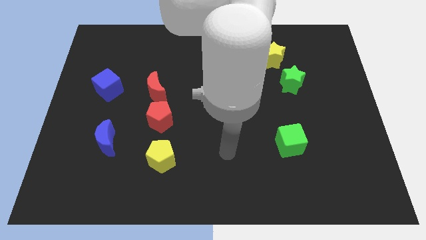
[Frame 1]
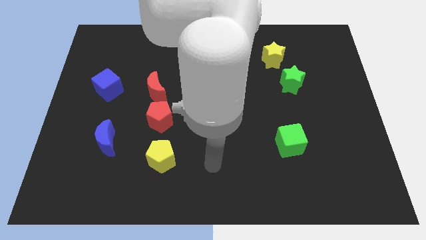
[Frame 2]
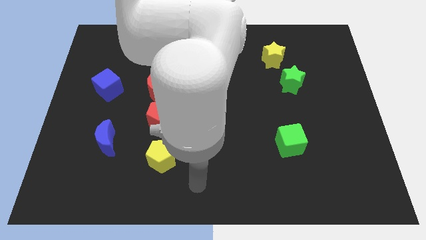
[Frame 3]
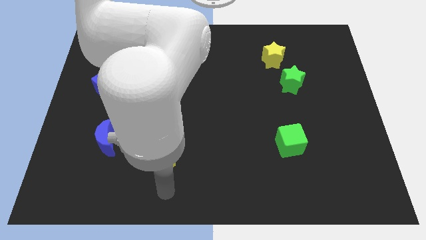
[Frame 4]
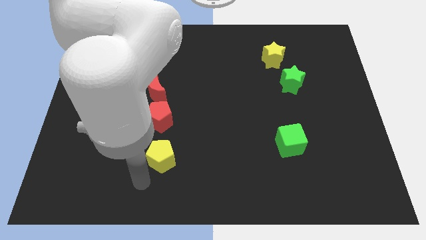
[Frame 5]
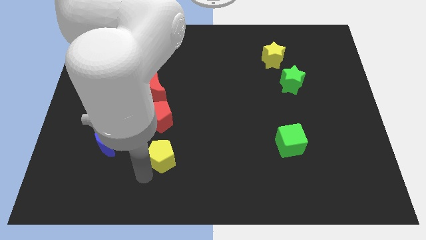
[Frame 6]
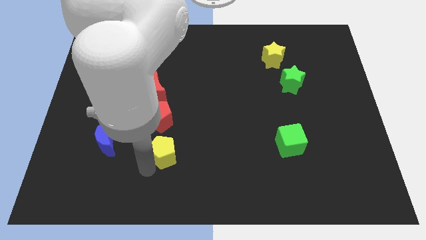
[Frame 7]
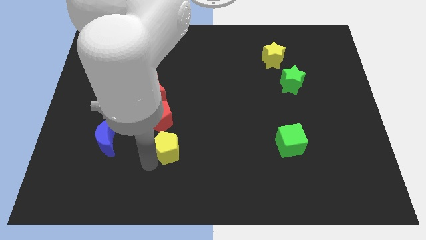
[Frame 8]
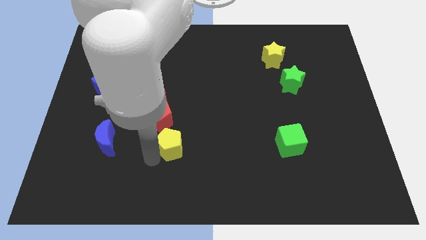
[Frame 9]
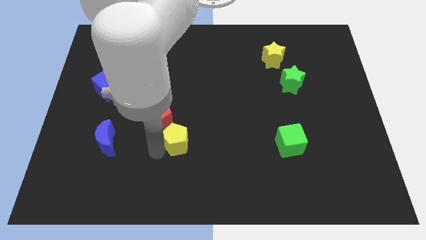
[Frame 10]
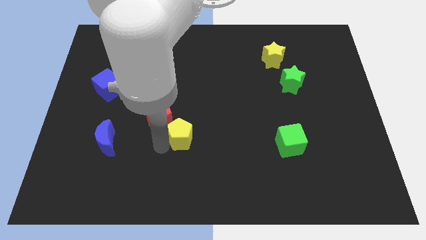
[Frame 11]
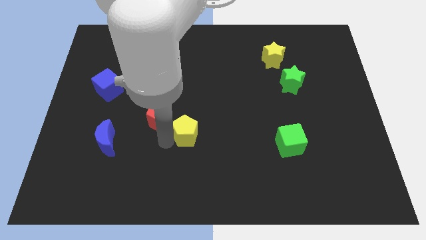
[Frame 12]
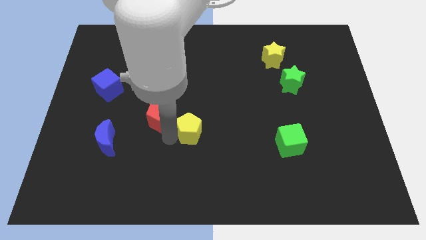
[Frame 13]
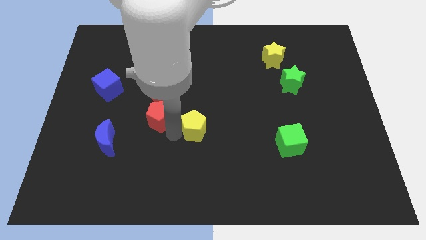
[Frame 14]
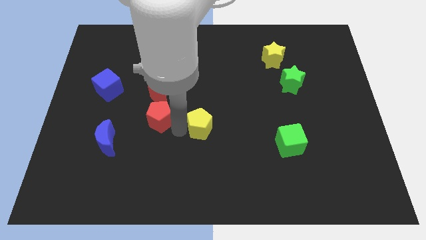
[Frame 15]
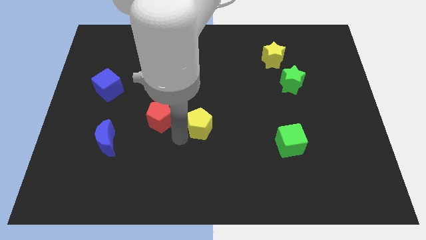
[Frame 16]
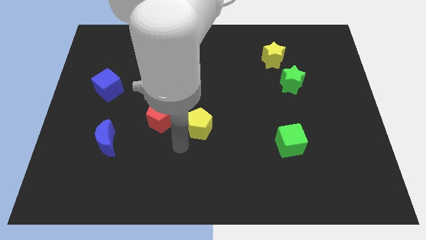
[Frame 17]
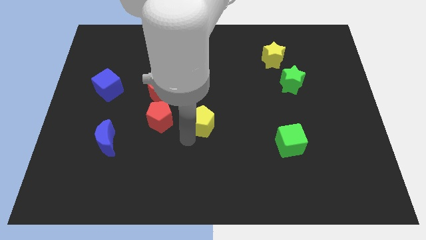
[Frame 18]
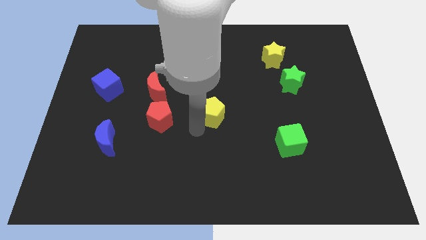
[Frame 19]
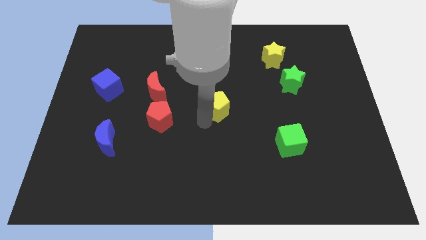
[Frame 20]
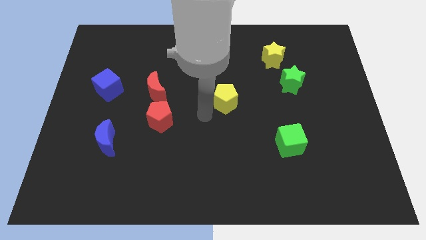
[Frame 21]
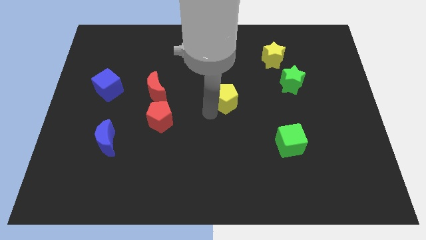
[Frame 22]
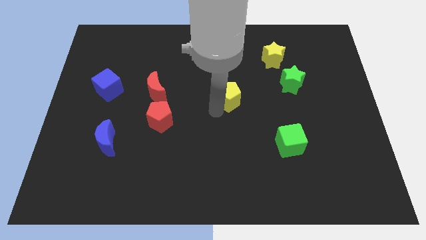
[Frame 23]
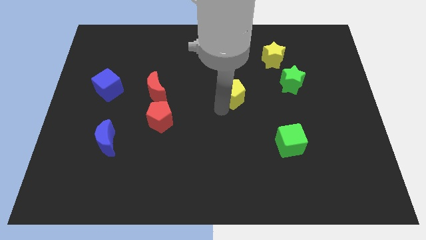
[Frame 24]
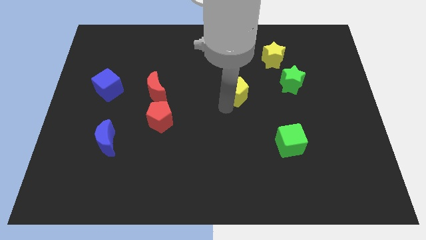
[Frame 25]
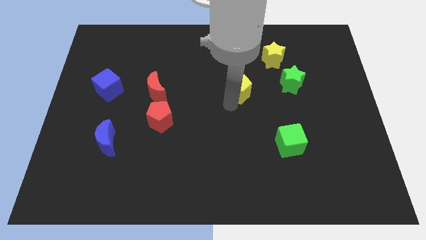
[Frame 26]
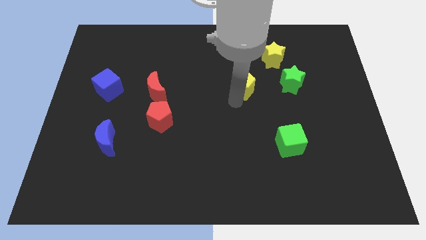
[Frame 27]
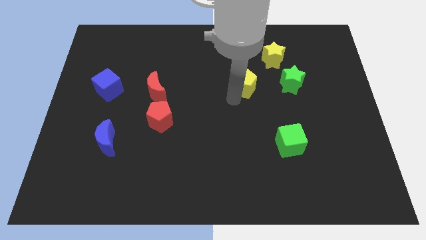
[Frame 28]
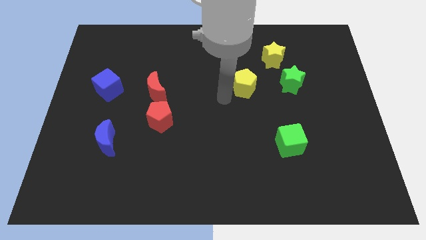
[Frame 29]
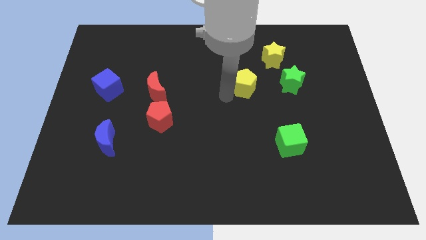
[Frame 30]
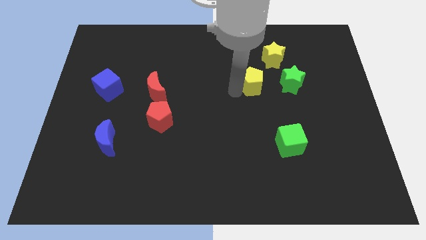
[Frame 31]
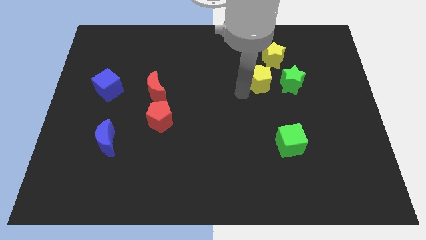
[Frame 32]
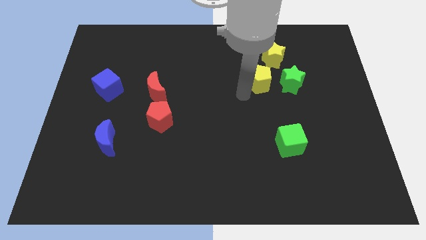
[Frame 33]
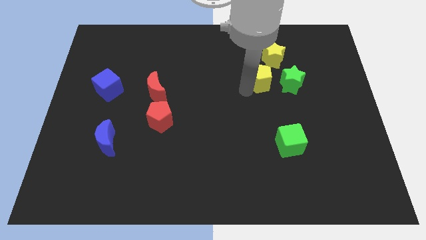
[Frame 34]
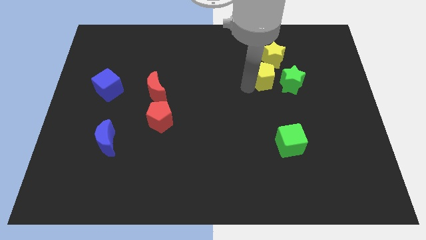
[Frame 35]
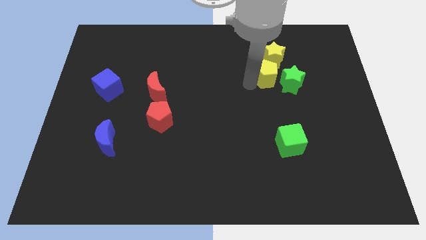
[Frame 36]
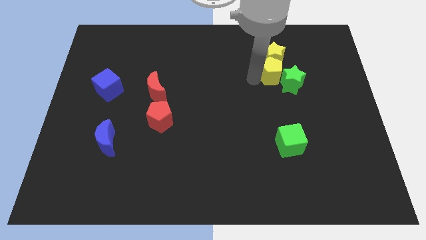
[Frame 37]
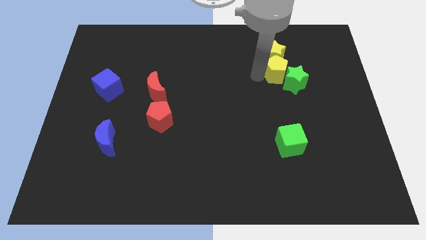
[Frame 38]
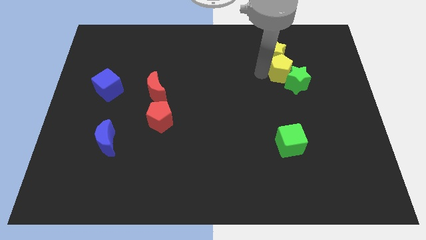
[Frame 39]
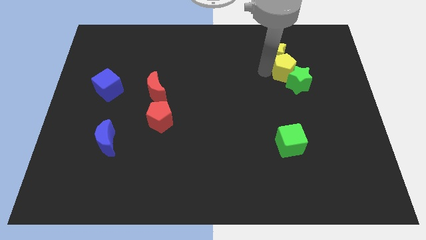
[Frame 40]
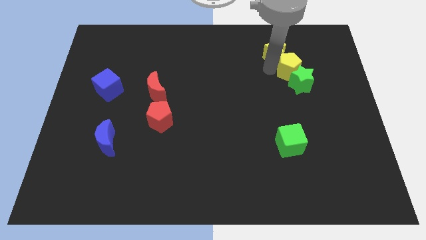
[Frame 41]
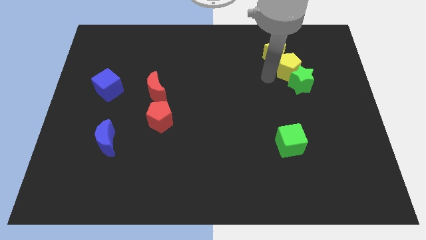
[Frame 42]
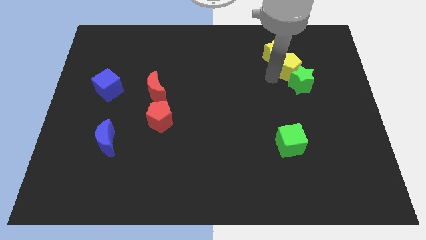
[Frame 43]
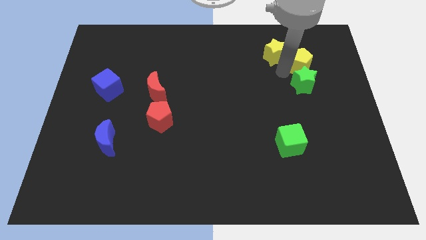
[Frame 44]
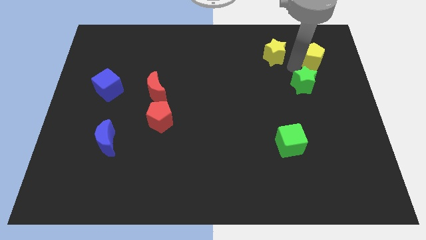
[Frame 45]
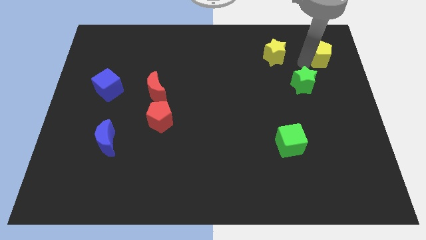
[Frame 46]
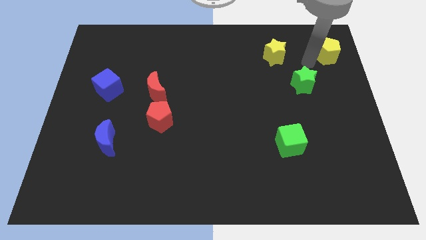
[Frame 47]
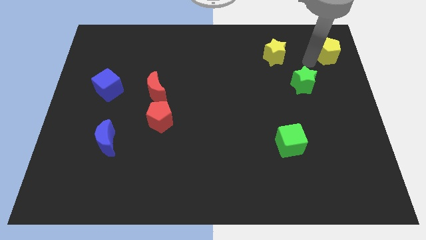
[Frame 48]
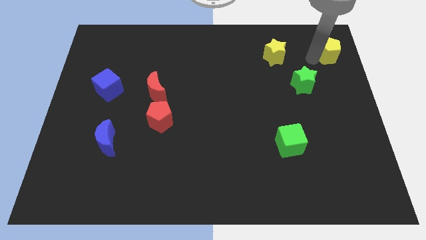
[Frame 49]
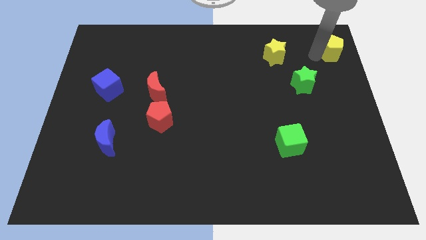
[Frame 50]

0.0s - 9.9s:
slide the yellow pentagon to the top right

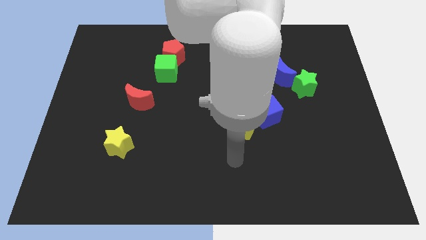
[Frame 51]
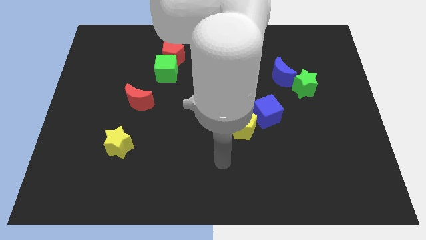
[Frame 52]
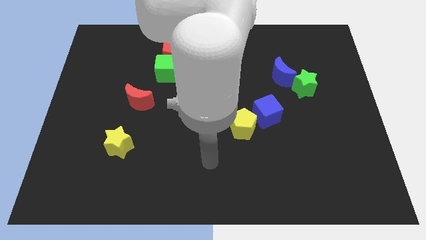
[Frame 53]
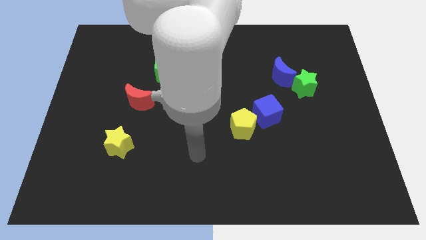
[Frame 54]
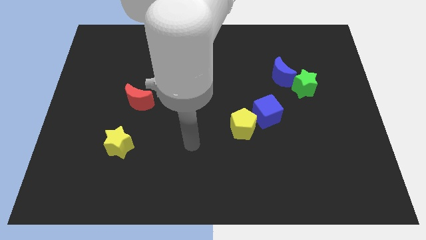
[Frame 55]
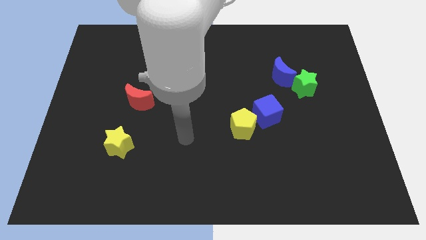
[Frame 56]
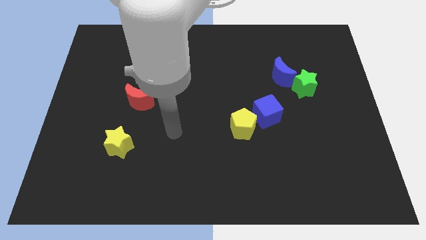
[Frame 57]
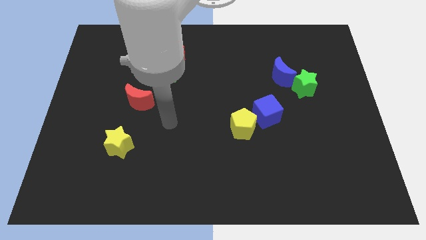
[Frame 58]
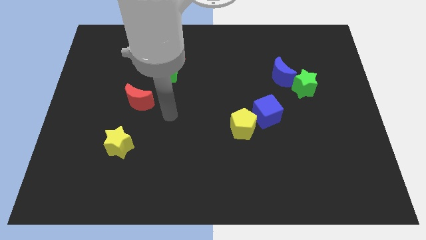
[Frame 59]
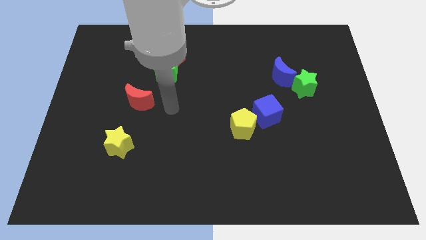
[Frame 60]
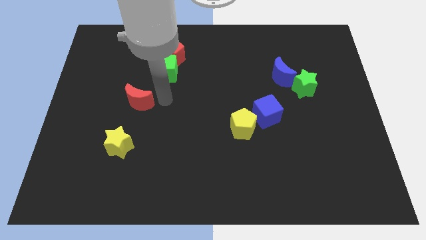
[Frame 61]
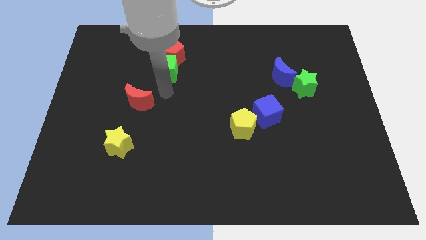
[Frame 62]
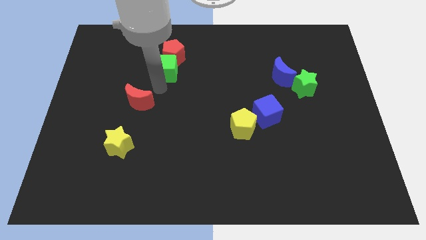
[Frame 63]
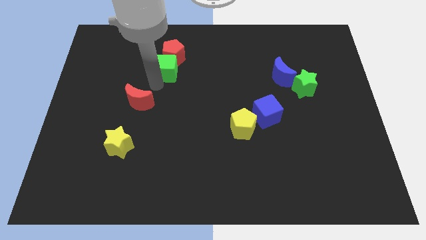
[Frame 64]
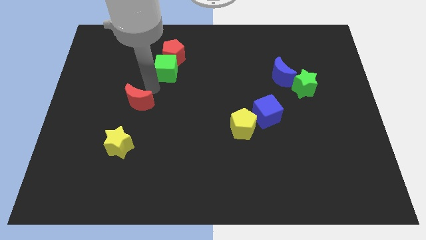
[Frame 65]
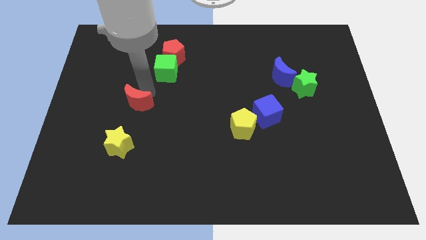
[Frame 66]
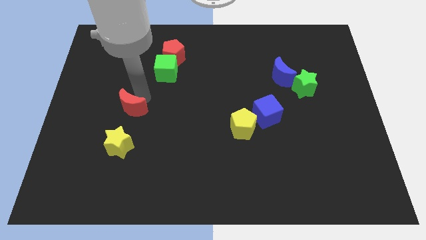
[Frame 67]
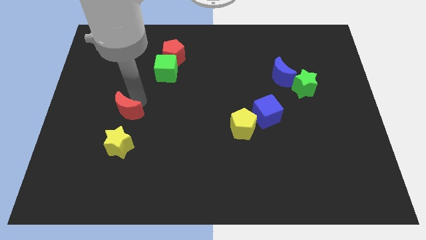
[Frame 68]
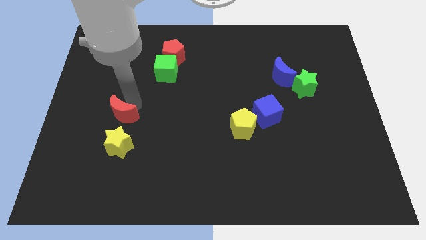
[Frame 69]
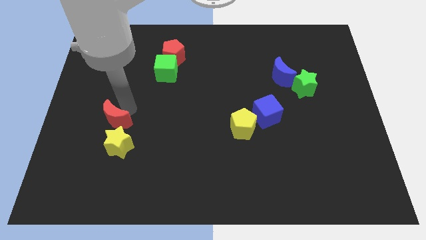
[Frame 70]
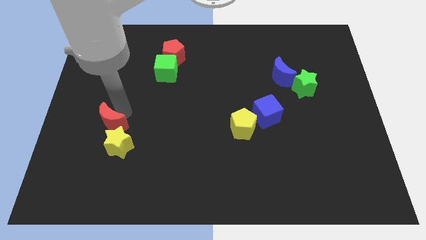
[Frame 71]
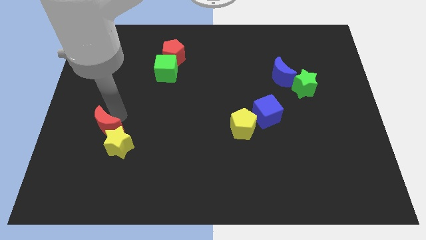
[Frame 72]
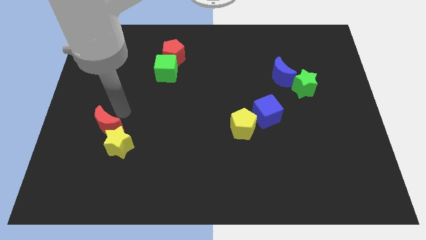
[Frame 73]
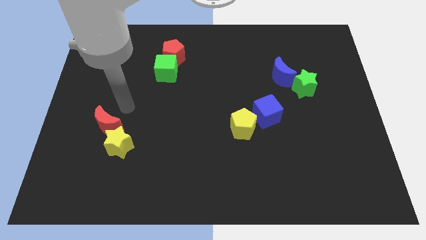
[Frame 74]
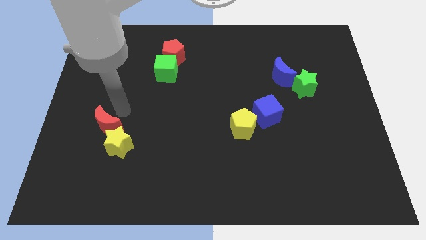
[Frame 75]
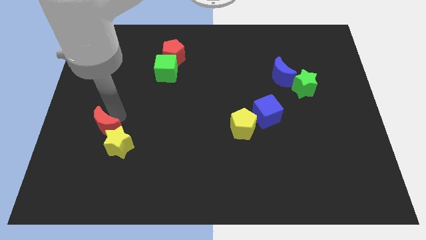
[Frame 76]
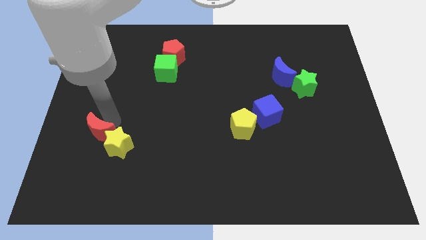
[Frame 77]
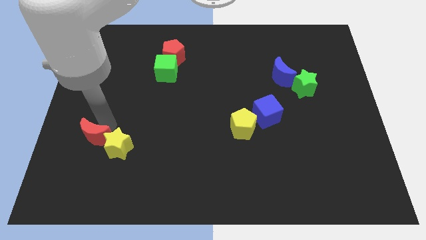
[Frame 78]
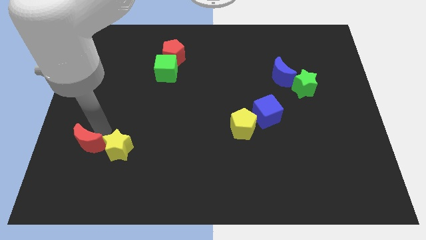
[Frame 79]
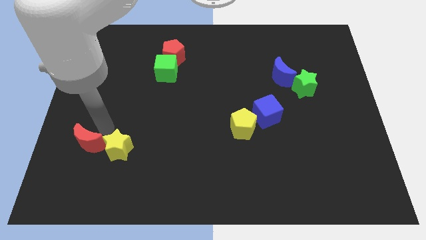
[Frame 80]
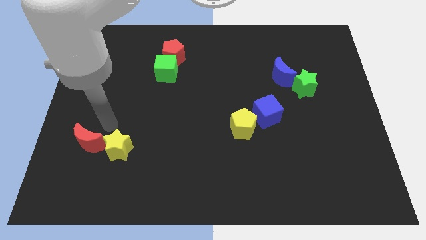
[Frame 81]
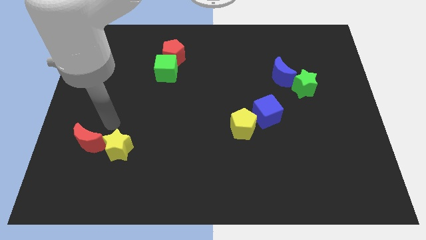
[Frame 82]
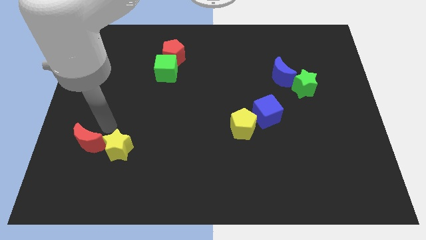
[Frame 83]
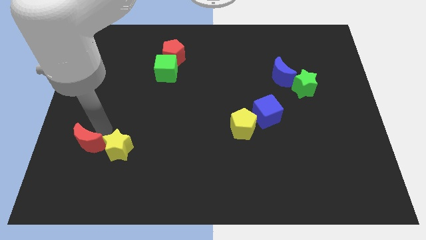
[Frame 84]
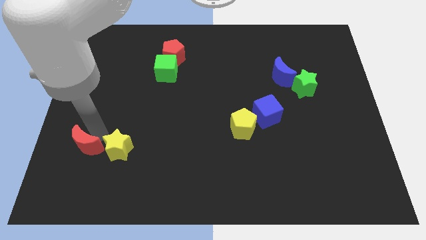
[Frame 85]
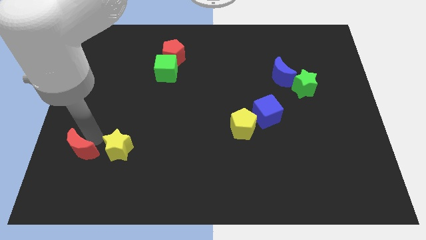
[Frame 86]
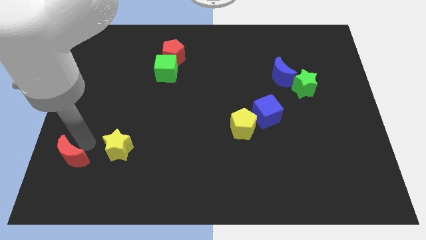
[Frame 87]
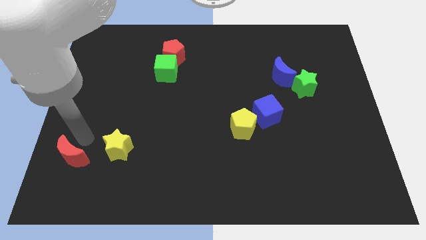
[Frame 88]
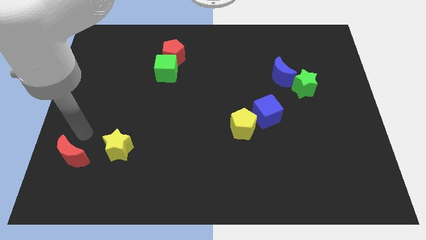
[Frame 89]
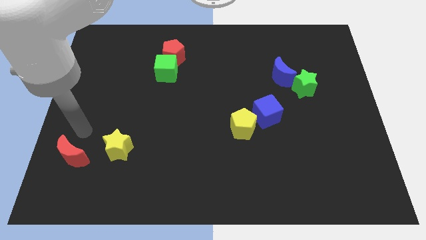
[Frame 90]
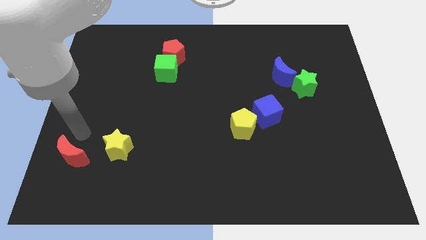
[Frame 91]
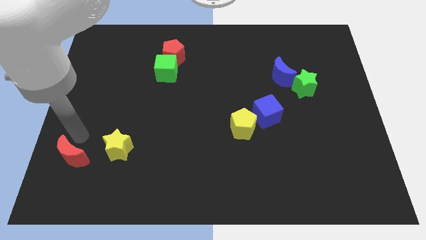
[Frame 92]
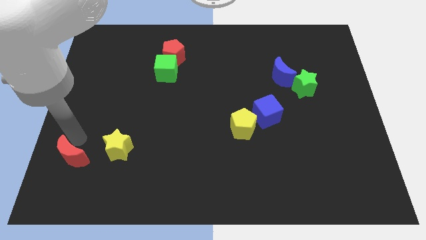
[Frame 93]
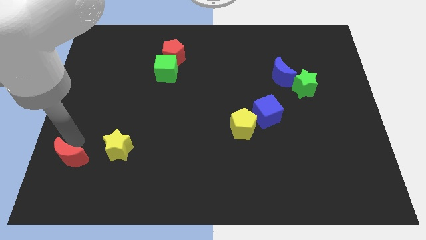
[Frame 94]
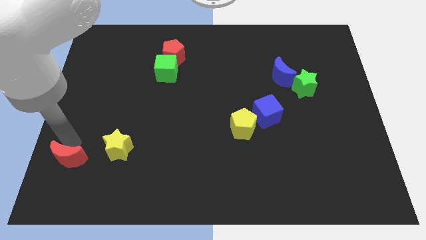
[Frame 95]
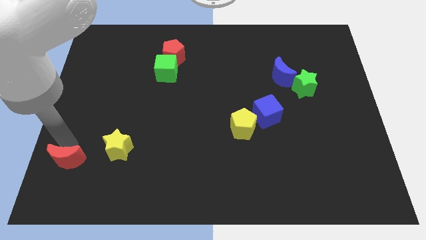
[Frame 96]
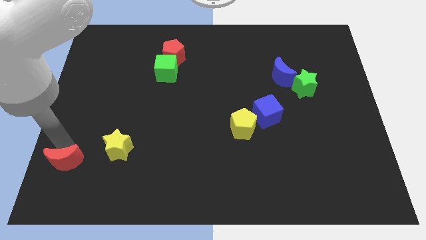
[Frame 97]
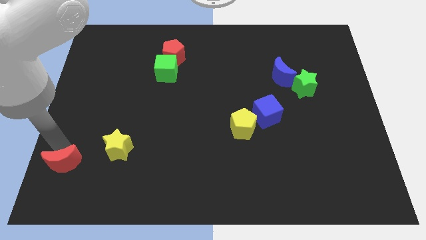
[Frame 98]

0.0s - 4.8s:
slide the red moon to the bottom left corner
